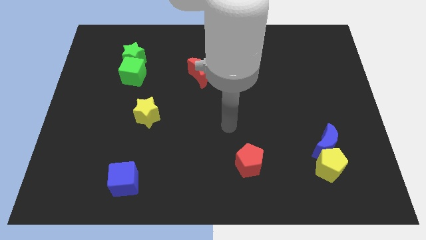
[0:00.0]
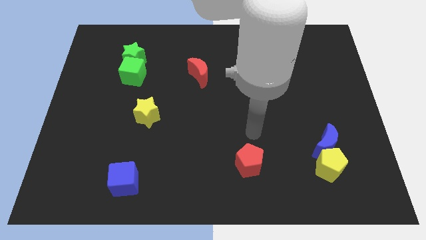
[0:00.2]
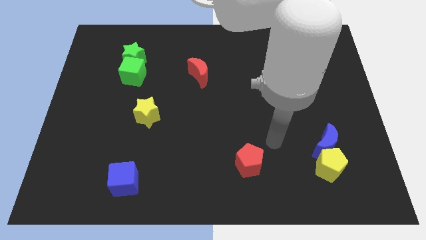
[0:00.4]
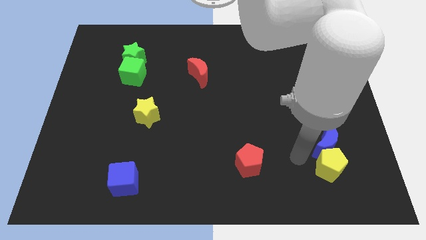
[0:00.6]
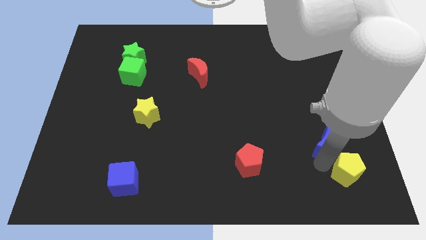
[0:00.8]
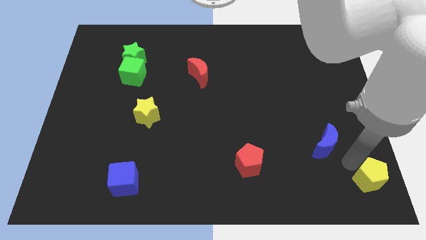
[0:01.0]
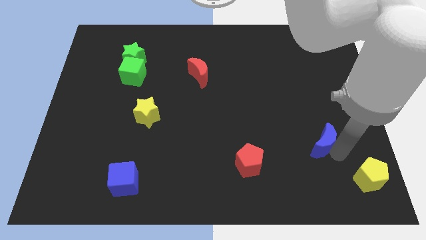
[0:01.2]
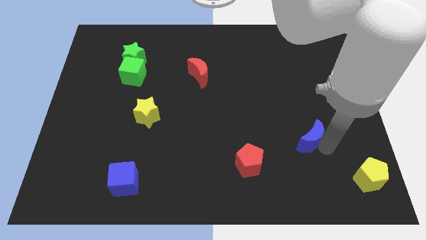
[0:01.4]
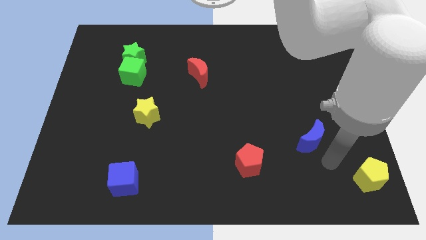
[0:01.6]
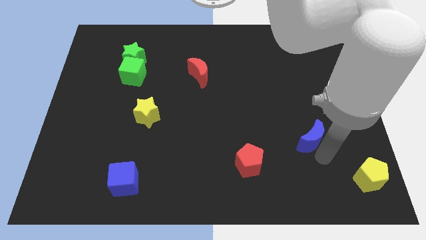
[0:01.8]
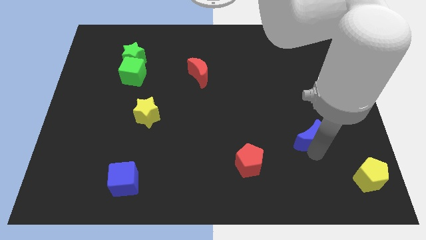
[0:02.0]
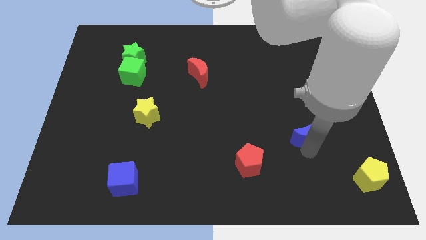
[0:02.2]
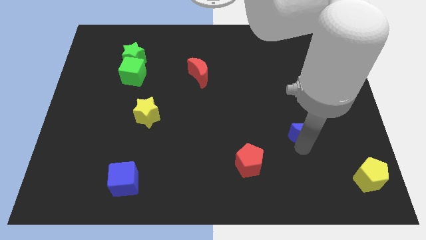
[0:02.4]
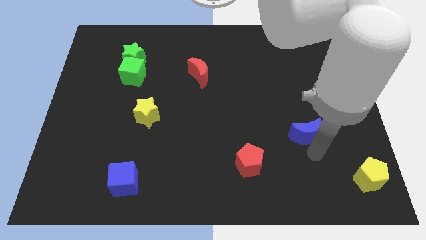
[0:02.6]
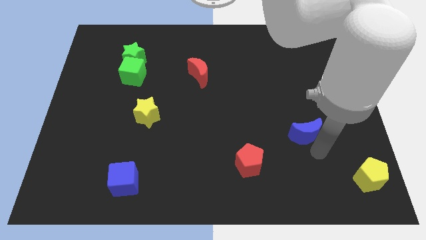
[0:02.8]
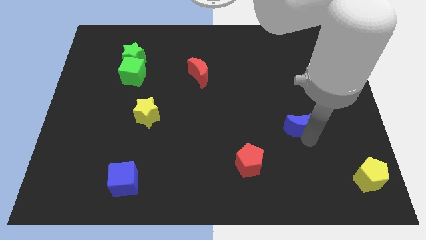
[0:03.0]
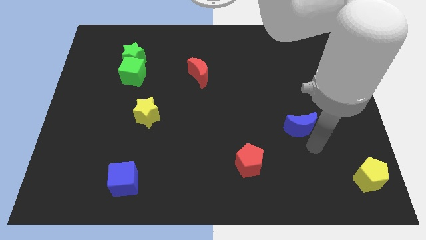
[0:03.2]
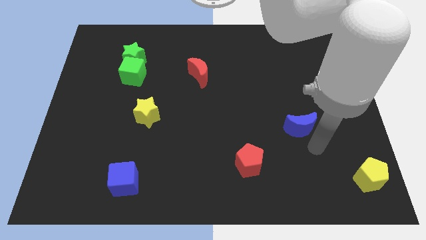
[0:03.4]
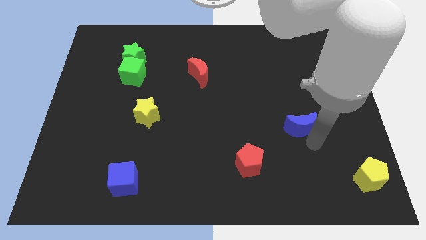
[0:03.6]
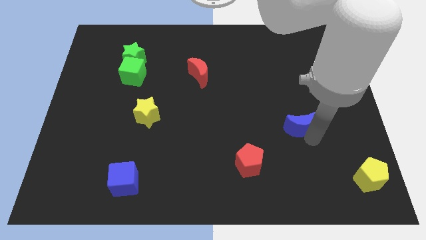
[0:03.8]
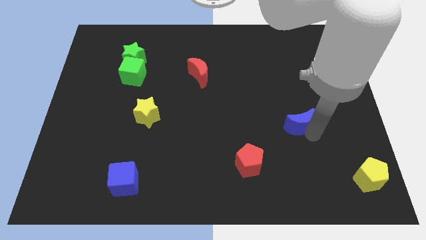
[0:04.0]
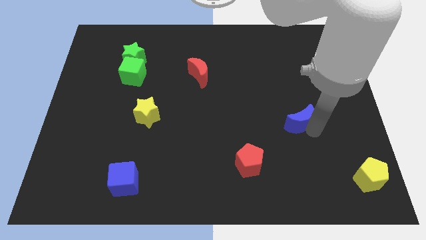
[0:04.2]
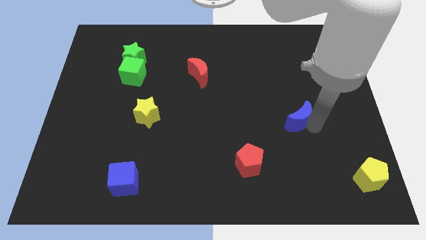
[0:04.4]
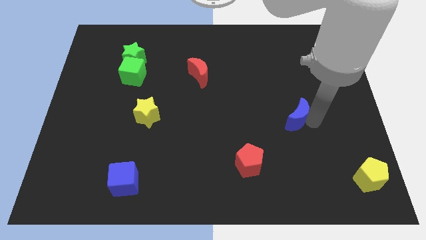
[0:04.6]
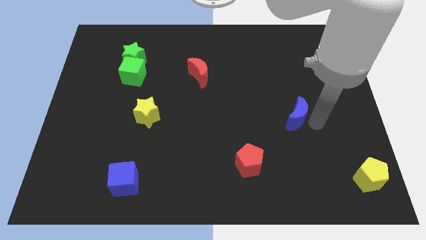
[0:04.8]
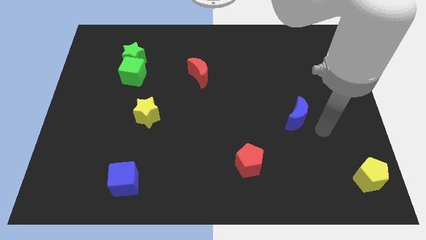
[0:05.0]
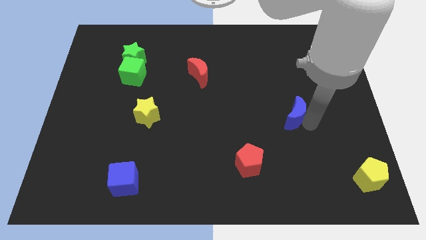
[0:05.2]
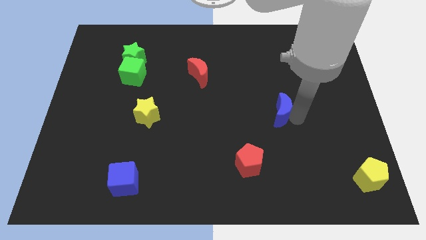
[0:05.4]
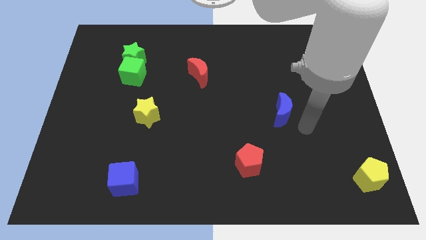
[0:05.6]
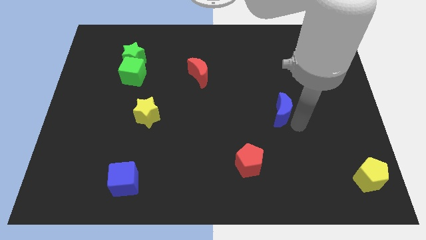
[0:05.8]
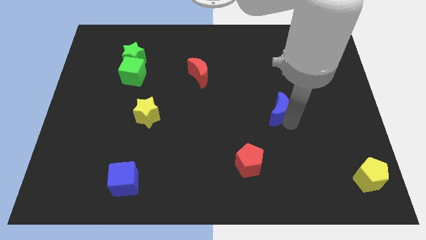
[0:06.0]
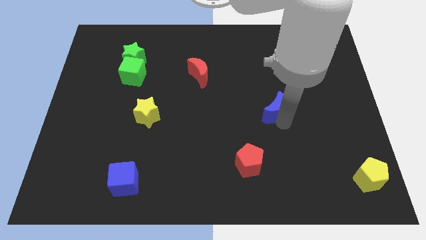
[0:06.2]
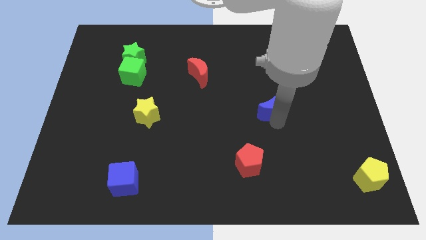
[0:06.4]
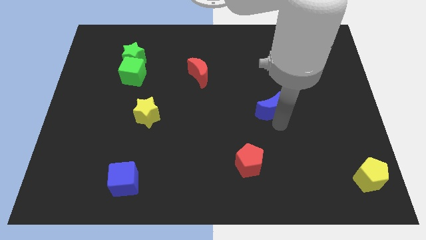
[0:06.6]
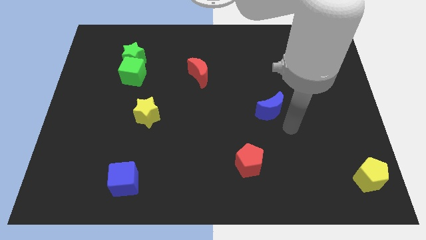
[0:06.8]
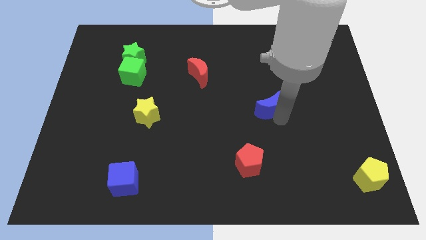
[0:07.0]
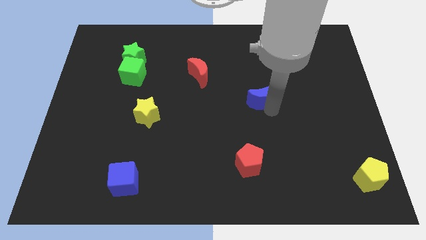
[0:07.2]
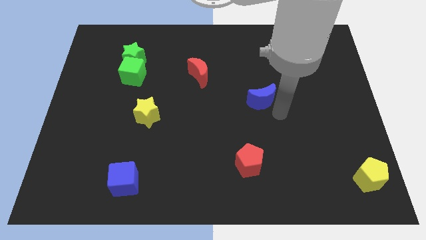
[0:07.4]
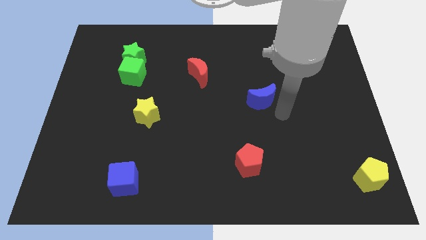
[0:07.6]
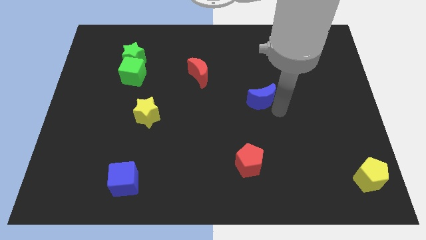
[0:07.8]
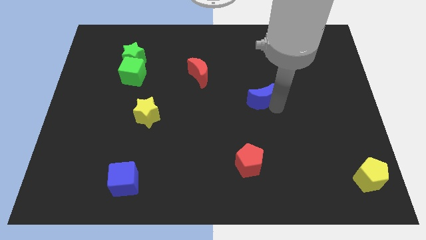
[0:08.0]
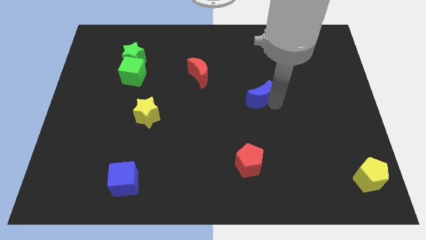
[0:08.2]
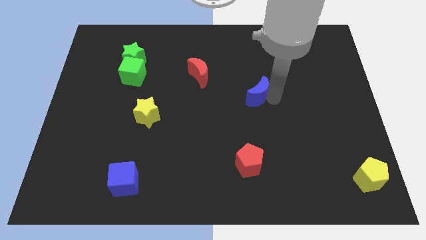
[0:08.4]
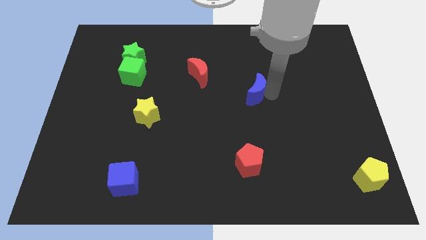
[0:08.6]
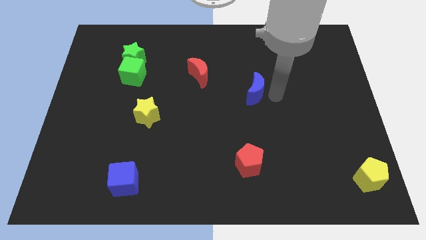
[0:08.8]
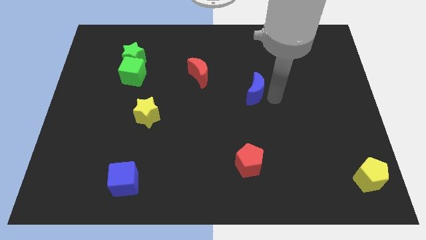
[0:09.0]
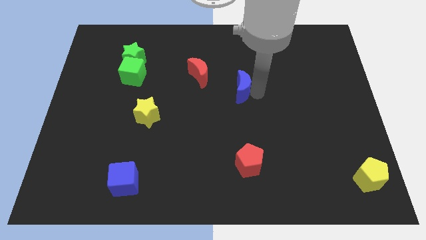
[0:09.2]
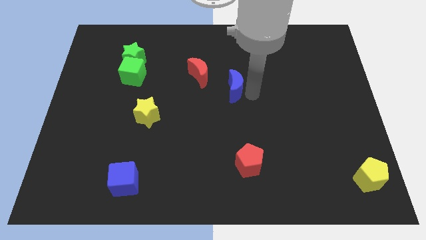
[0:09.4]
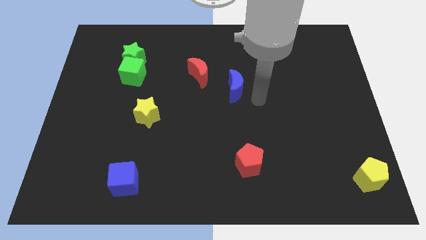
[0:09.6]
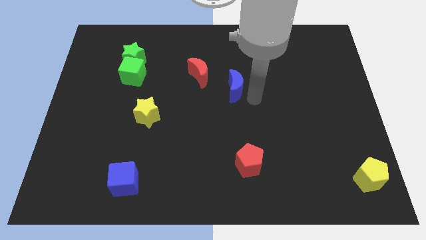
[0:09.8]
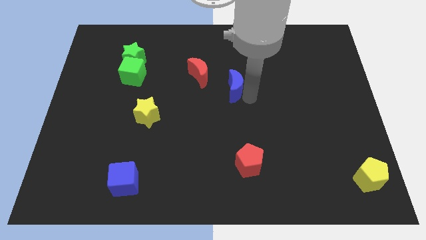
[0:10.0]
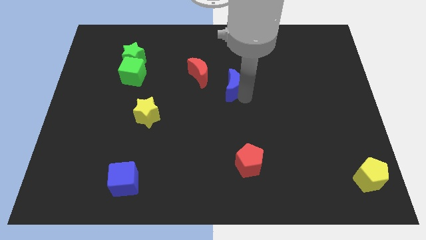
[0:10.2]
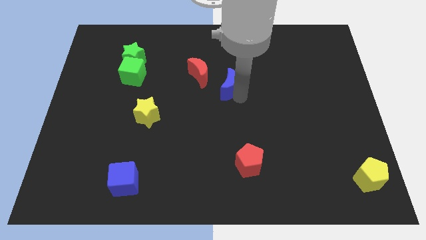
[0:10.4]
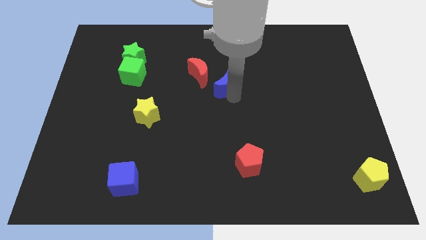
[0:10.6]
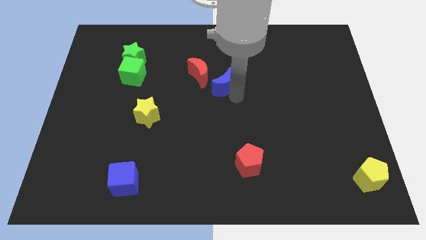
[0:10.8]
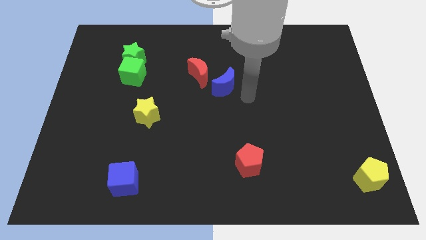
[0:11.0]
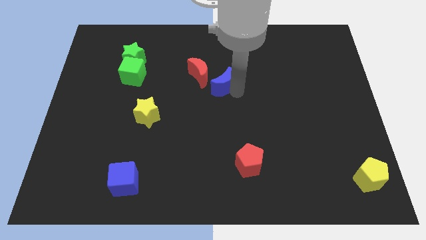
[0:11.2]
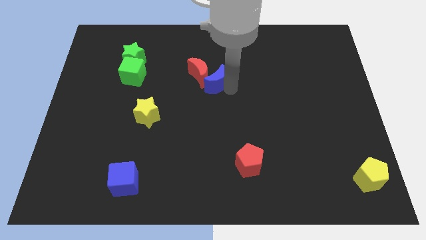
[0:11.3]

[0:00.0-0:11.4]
put the blue moon next to the red moon

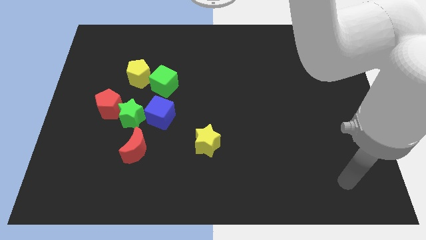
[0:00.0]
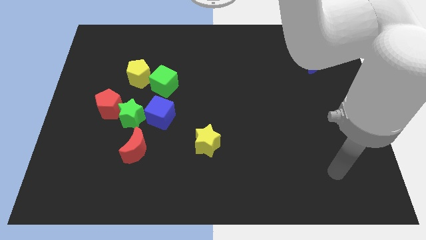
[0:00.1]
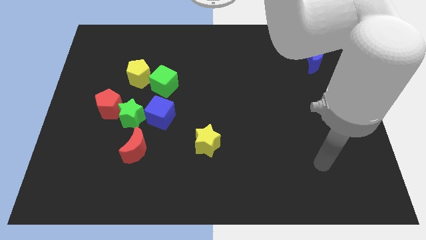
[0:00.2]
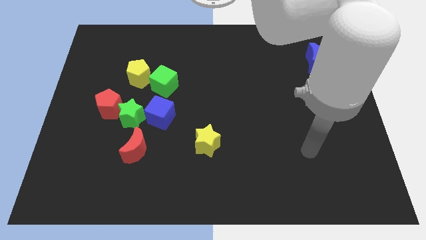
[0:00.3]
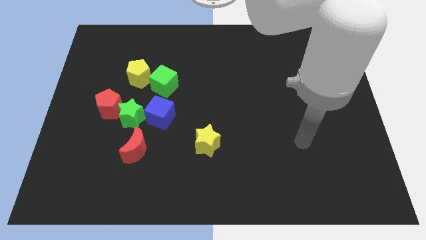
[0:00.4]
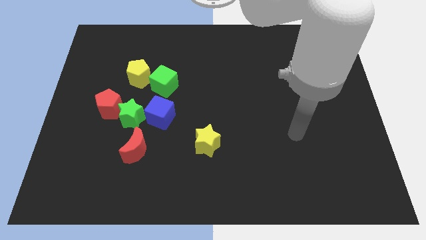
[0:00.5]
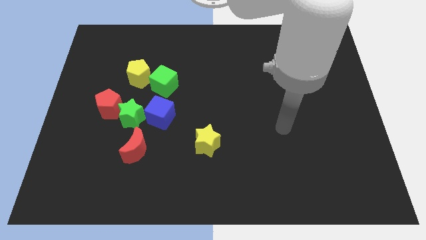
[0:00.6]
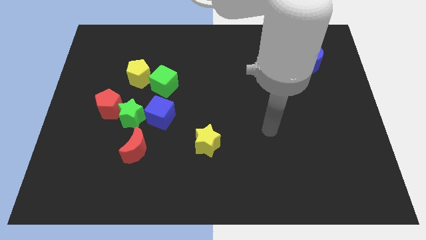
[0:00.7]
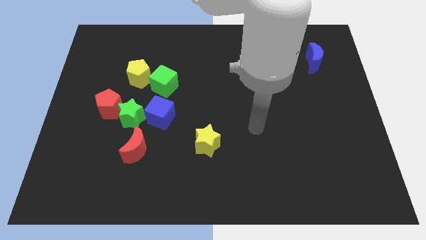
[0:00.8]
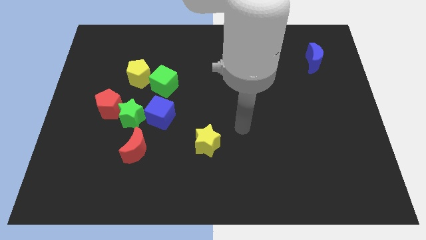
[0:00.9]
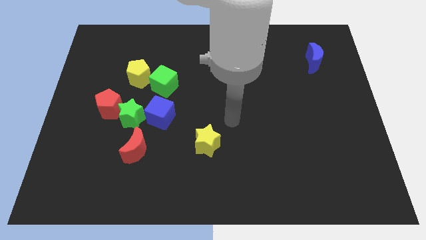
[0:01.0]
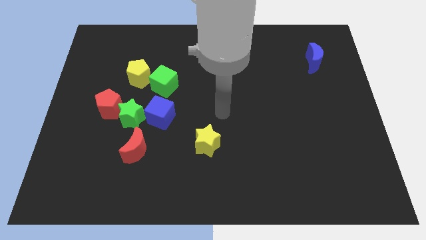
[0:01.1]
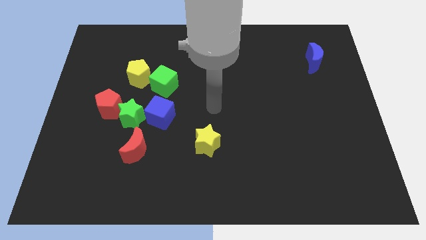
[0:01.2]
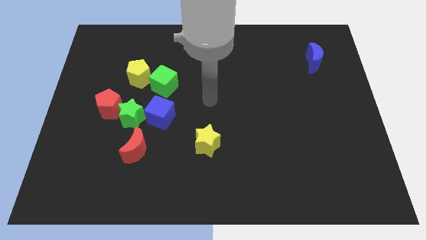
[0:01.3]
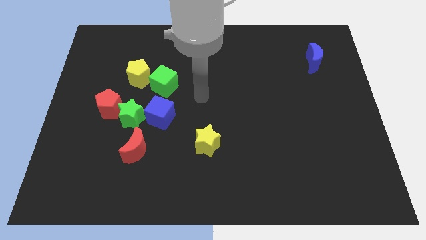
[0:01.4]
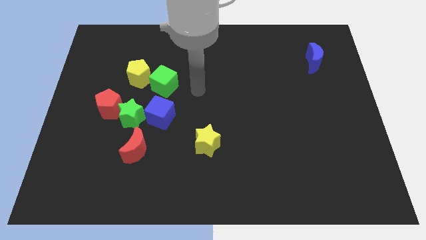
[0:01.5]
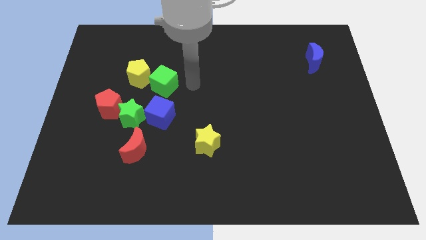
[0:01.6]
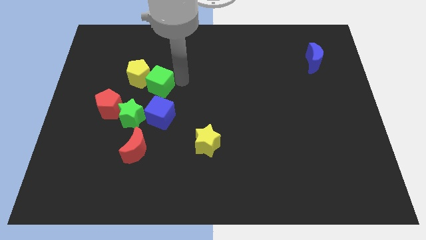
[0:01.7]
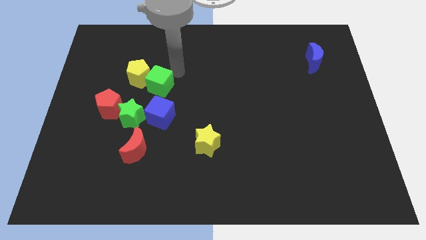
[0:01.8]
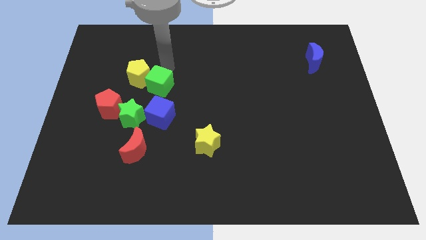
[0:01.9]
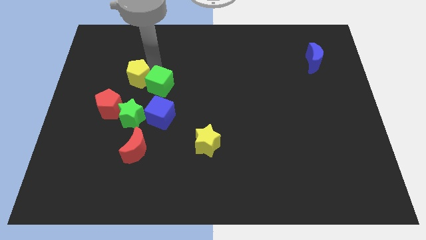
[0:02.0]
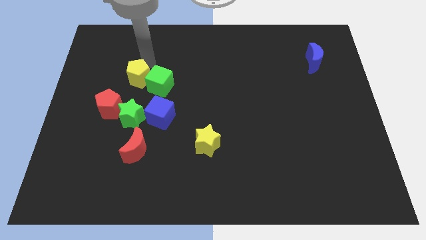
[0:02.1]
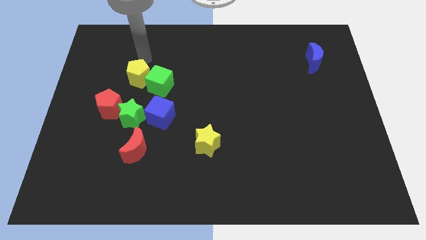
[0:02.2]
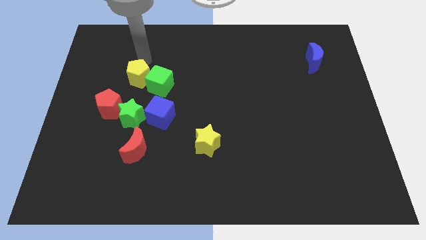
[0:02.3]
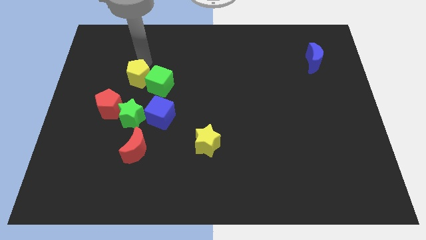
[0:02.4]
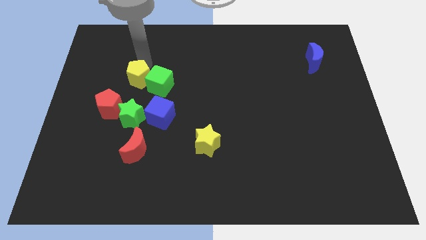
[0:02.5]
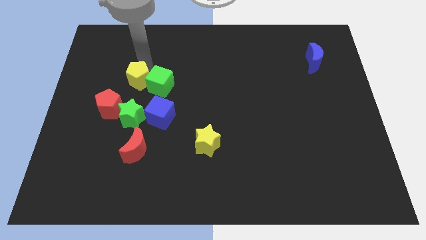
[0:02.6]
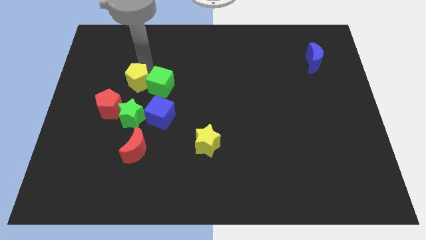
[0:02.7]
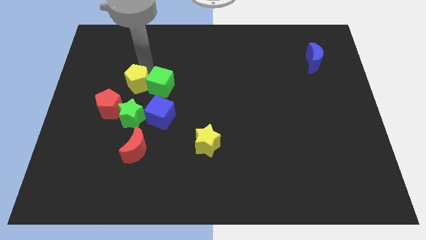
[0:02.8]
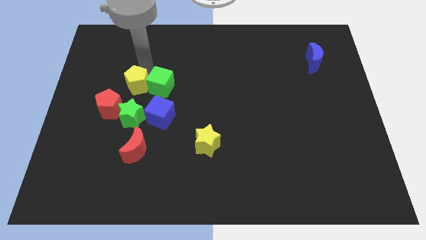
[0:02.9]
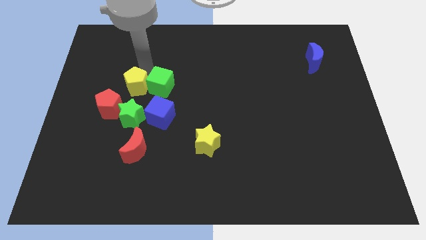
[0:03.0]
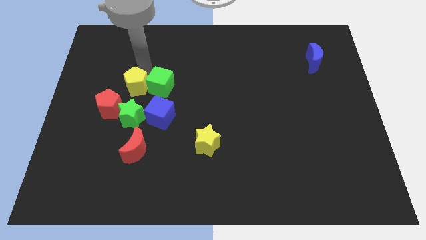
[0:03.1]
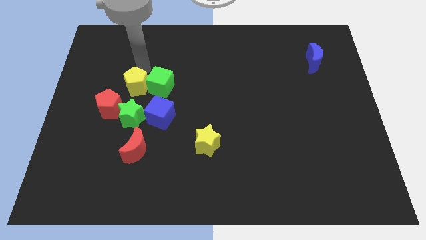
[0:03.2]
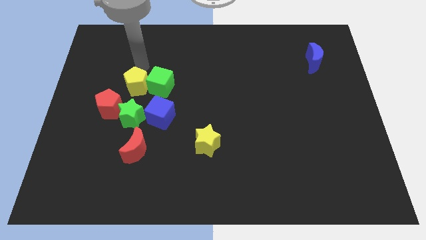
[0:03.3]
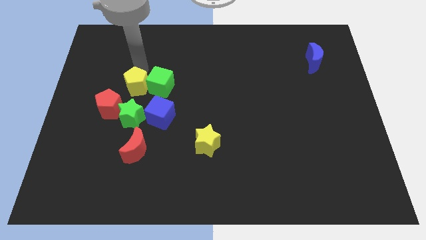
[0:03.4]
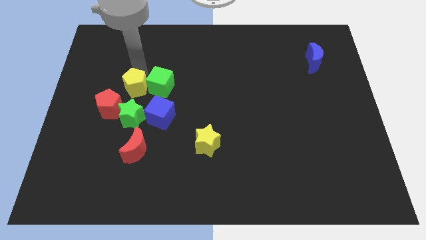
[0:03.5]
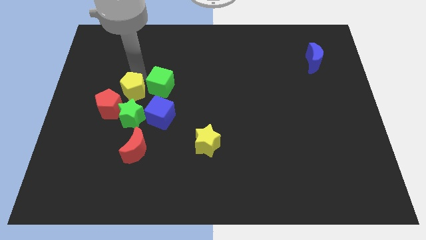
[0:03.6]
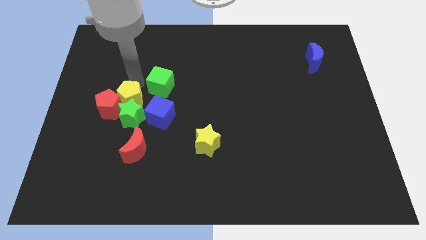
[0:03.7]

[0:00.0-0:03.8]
push the yellow pentagon next to the green star
